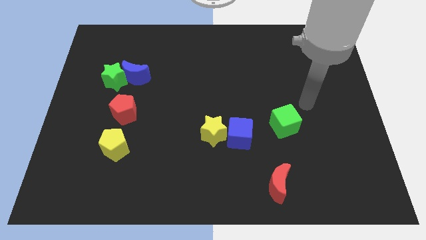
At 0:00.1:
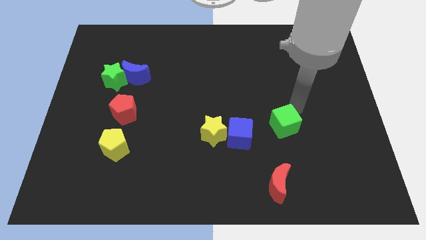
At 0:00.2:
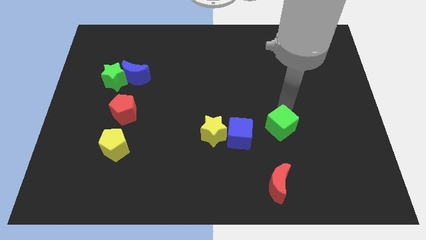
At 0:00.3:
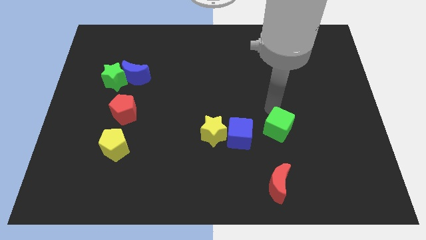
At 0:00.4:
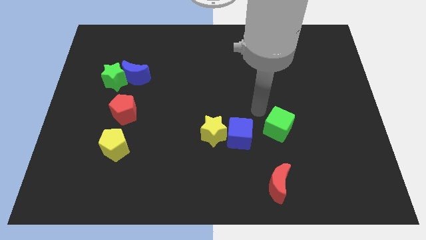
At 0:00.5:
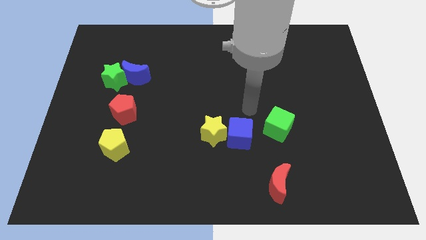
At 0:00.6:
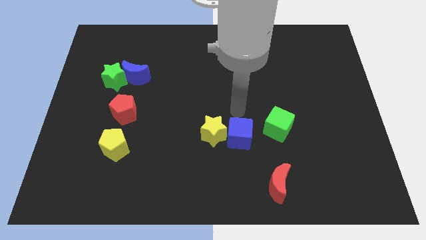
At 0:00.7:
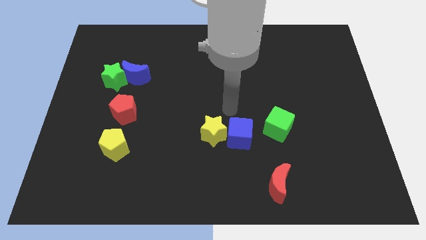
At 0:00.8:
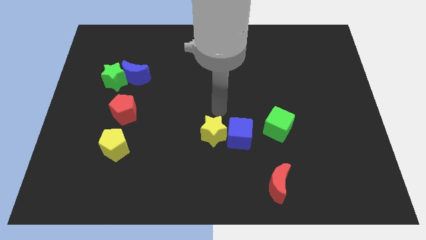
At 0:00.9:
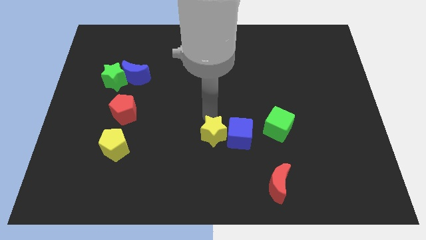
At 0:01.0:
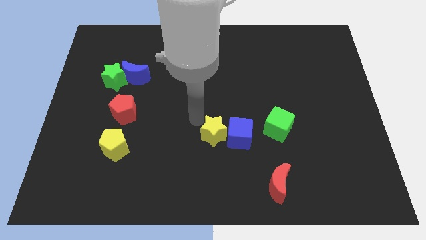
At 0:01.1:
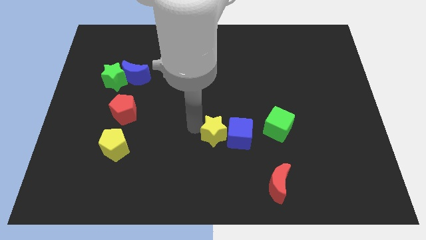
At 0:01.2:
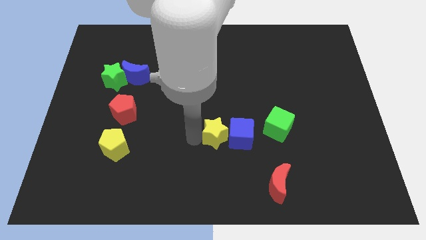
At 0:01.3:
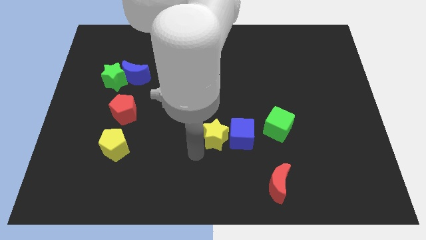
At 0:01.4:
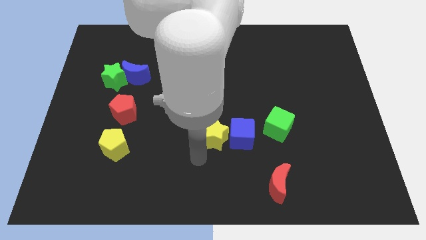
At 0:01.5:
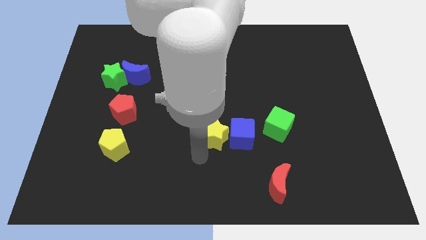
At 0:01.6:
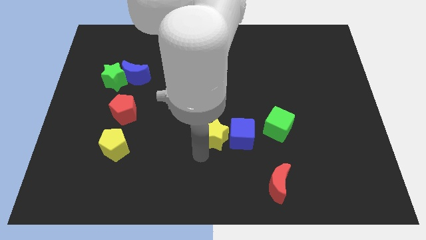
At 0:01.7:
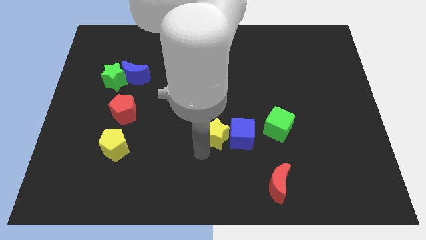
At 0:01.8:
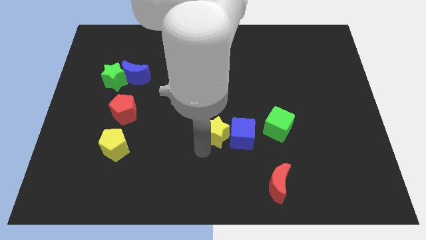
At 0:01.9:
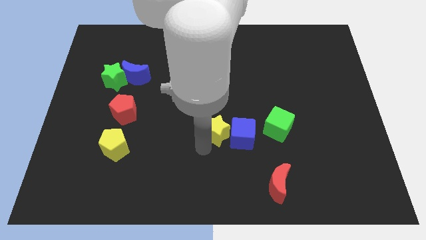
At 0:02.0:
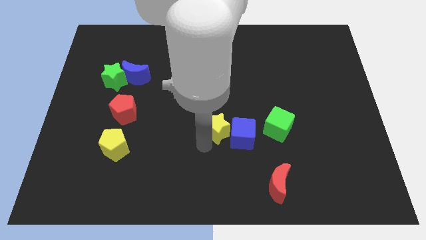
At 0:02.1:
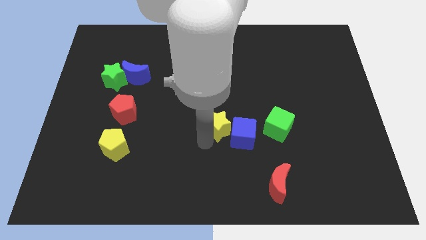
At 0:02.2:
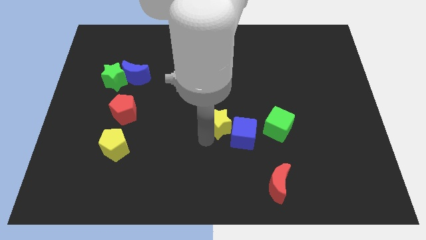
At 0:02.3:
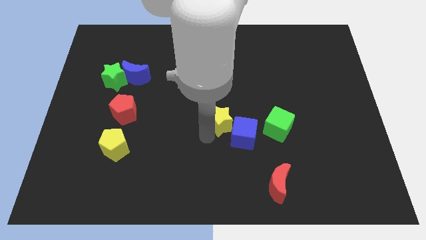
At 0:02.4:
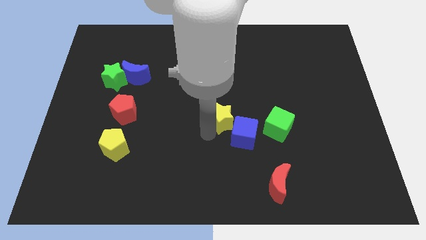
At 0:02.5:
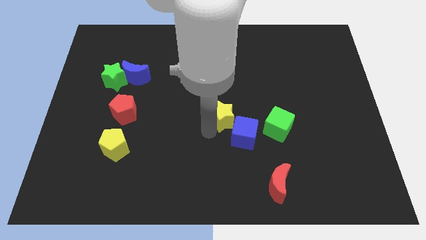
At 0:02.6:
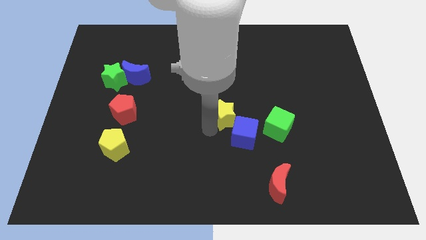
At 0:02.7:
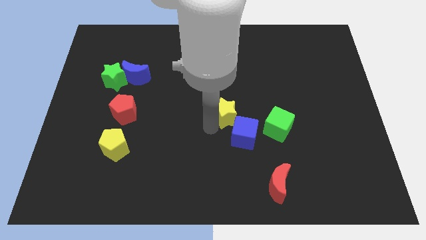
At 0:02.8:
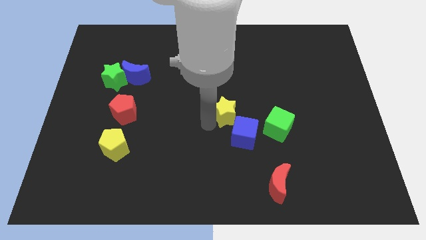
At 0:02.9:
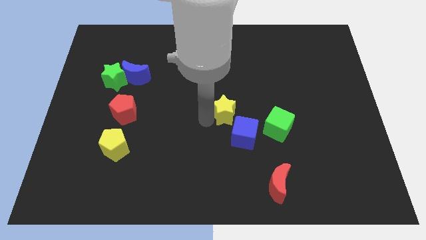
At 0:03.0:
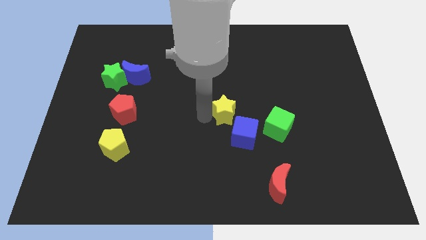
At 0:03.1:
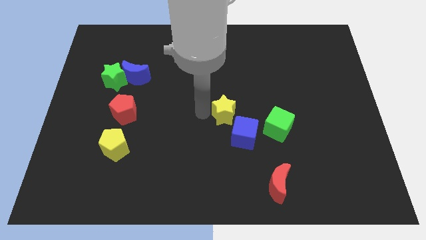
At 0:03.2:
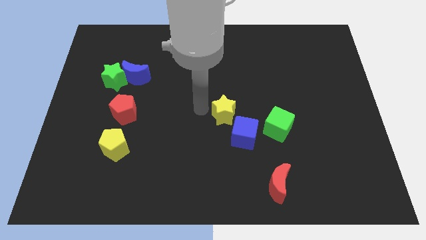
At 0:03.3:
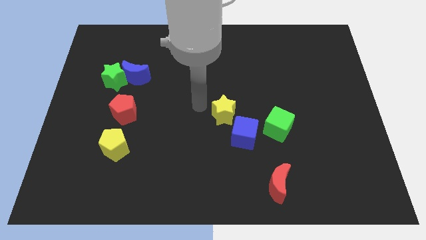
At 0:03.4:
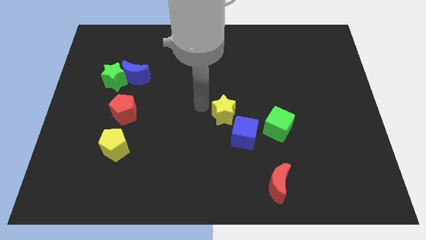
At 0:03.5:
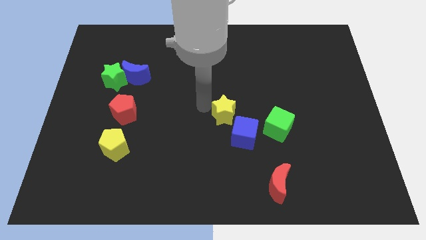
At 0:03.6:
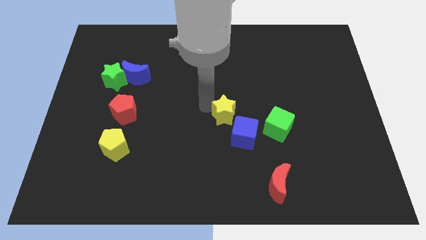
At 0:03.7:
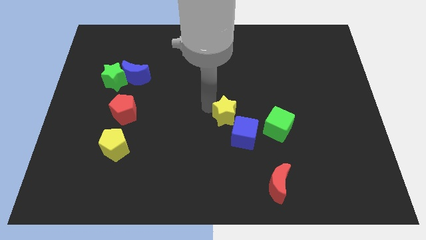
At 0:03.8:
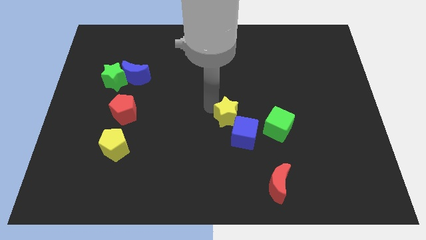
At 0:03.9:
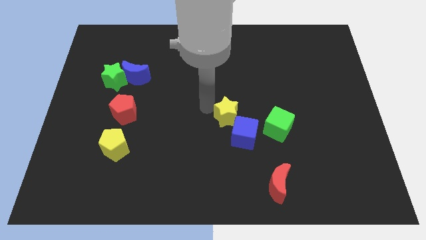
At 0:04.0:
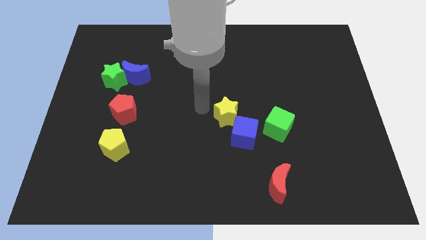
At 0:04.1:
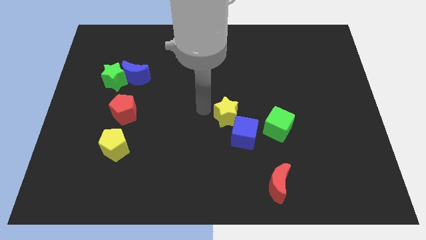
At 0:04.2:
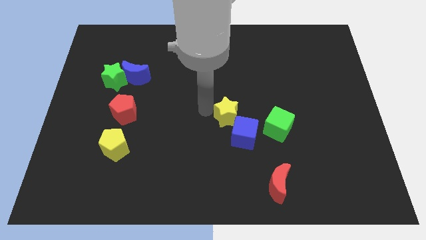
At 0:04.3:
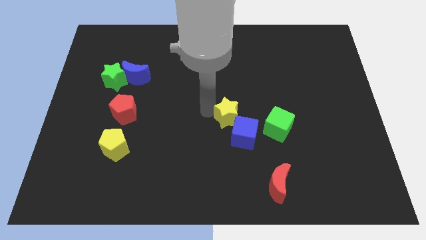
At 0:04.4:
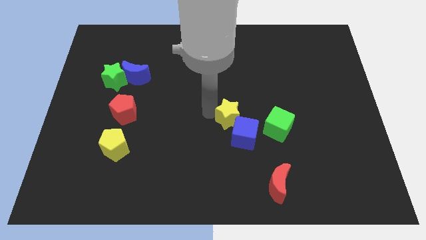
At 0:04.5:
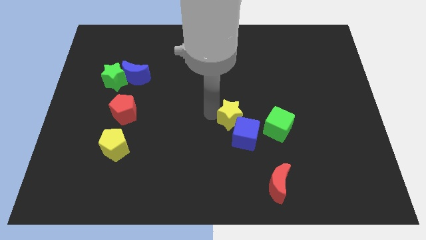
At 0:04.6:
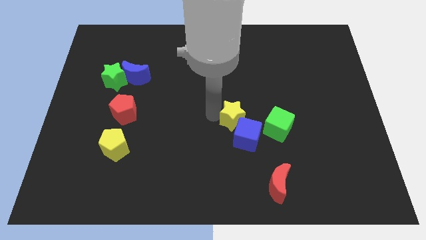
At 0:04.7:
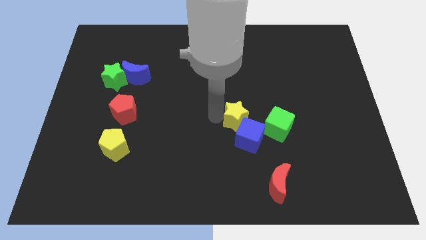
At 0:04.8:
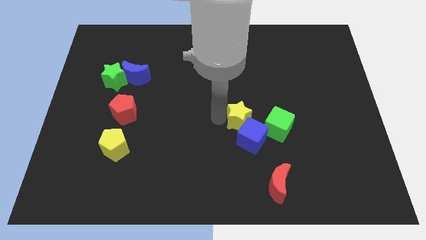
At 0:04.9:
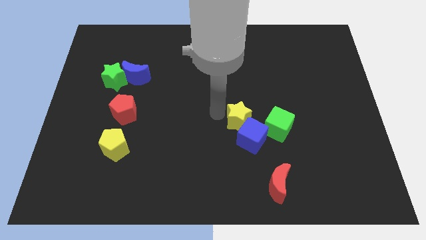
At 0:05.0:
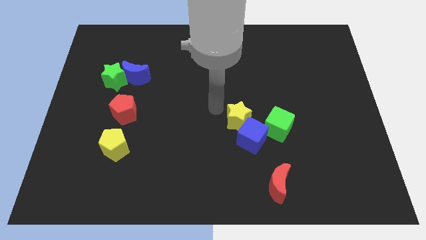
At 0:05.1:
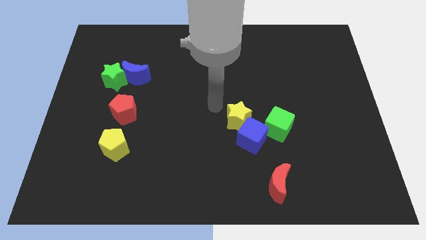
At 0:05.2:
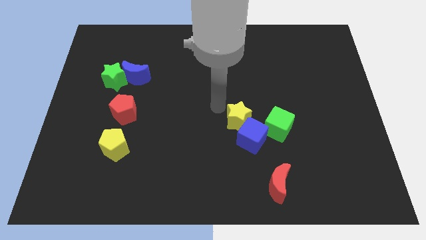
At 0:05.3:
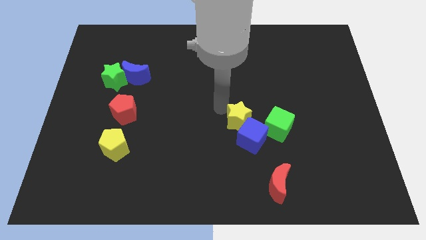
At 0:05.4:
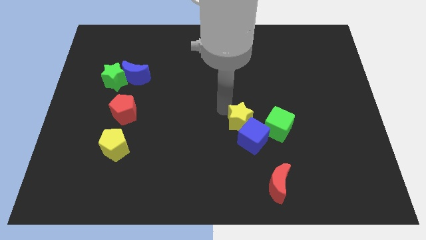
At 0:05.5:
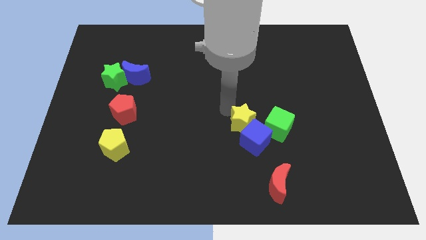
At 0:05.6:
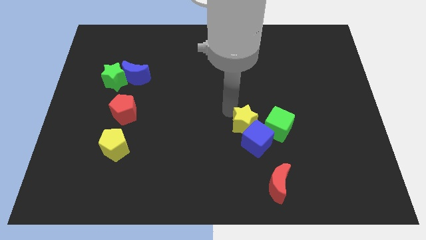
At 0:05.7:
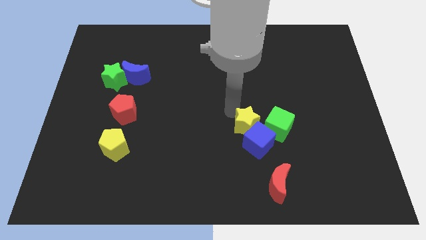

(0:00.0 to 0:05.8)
slightly move the yellow star right

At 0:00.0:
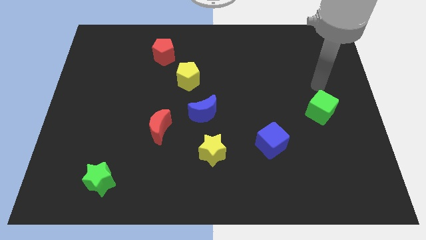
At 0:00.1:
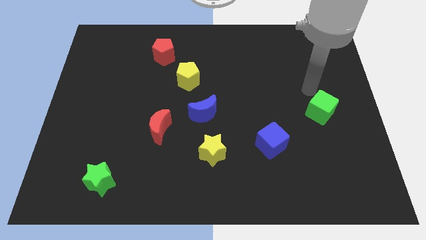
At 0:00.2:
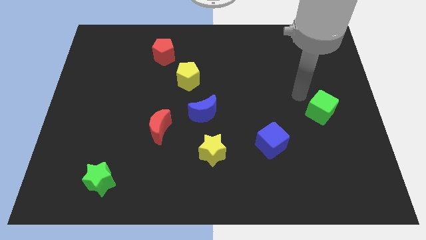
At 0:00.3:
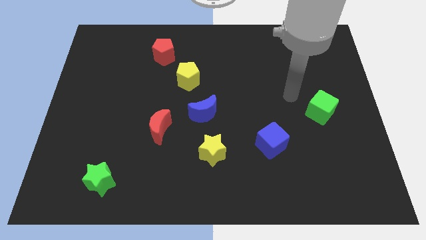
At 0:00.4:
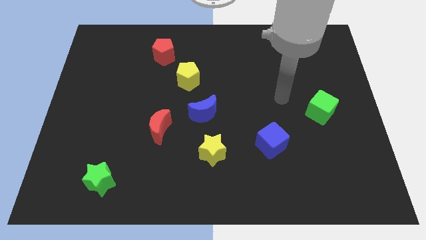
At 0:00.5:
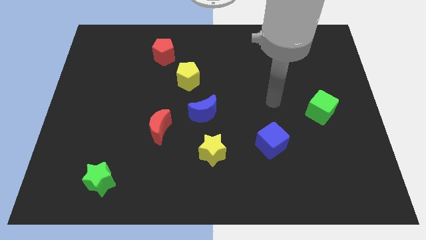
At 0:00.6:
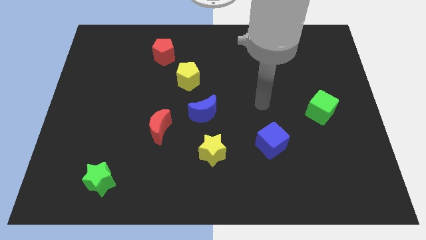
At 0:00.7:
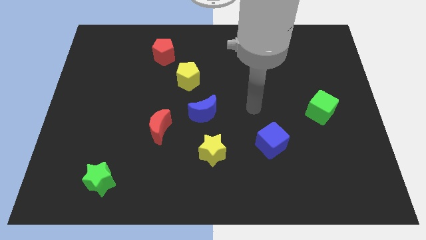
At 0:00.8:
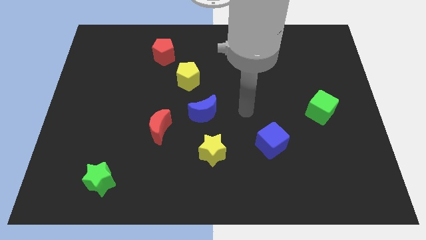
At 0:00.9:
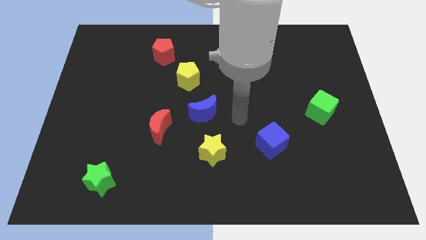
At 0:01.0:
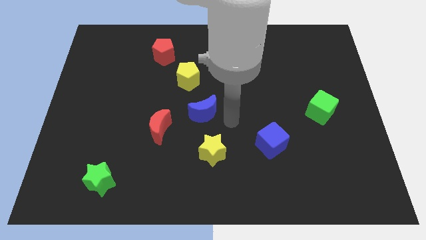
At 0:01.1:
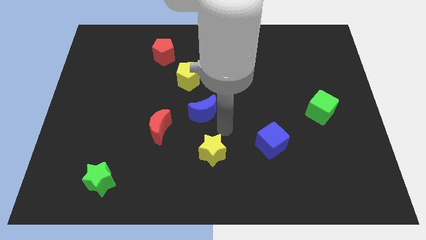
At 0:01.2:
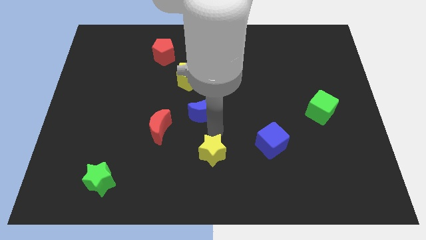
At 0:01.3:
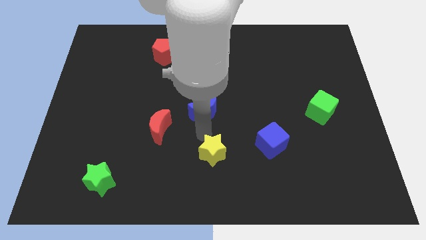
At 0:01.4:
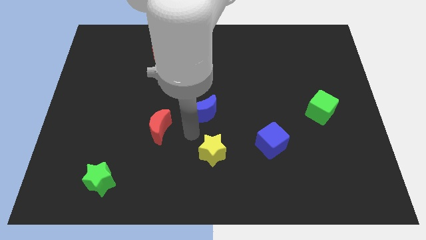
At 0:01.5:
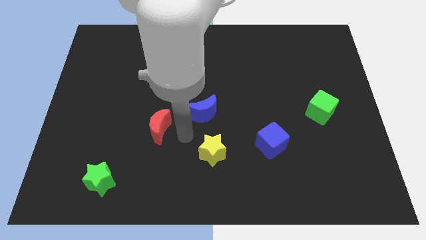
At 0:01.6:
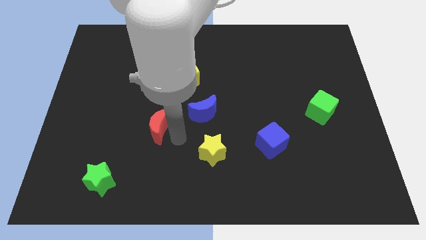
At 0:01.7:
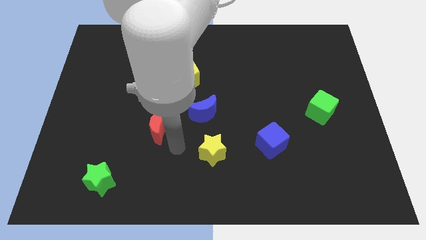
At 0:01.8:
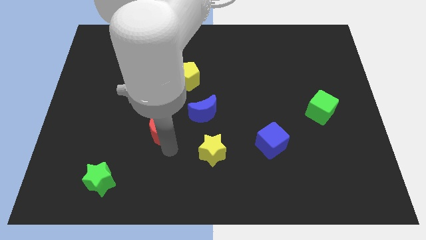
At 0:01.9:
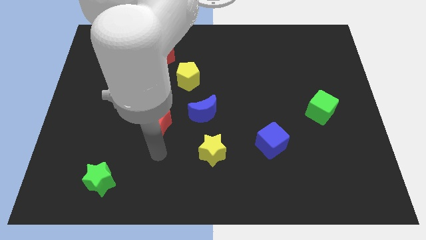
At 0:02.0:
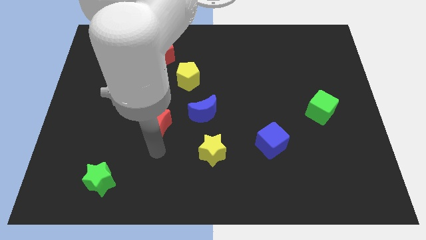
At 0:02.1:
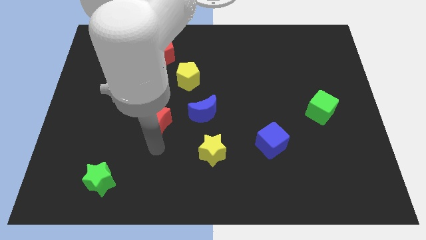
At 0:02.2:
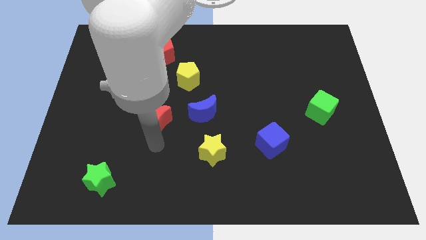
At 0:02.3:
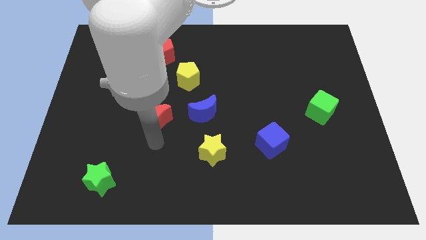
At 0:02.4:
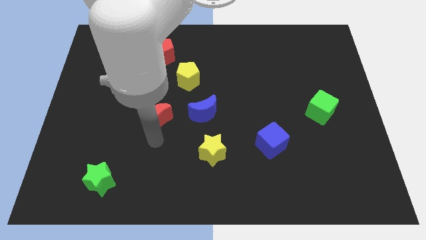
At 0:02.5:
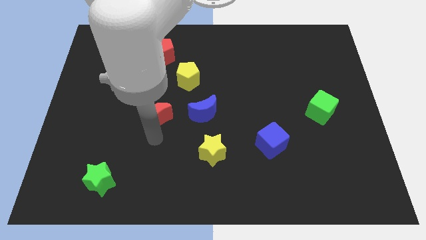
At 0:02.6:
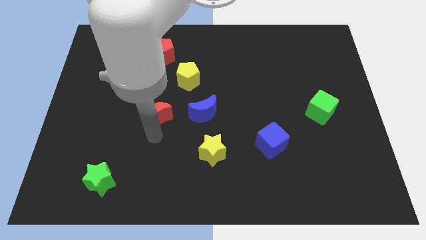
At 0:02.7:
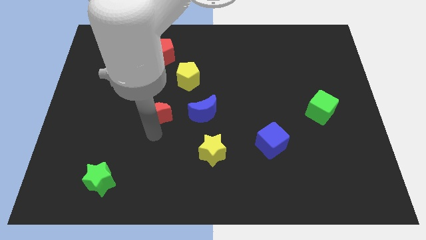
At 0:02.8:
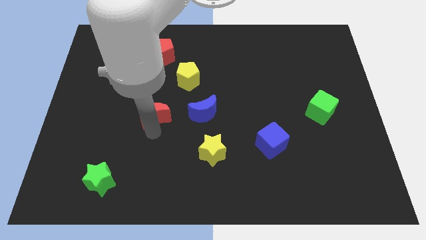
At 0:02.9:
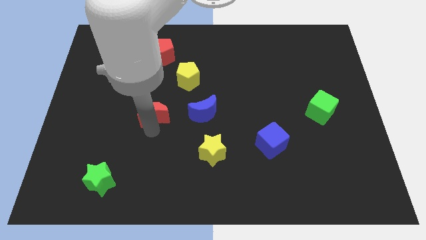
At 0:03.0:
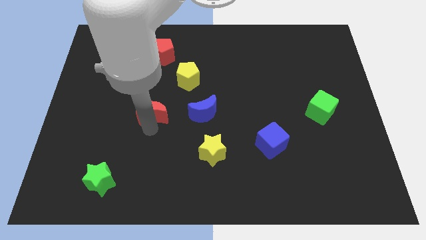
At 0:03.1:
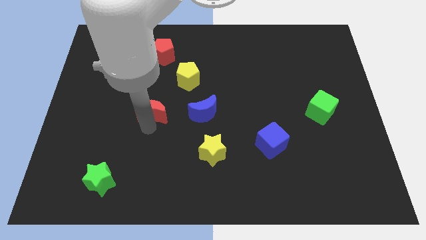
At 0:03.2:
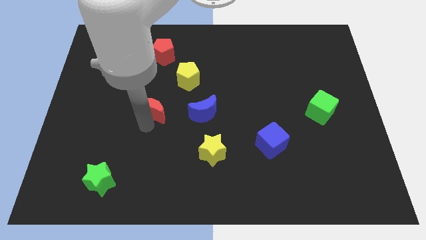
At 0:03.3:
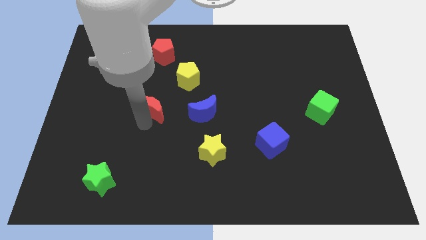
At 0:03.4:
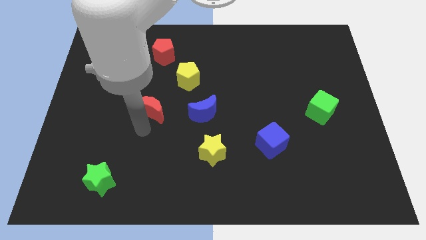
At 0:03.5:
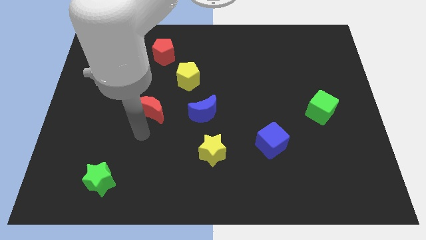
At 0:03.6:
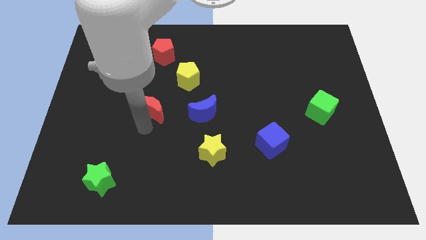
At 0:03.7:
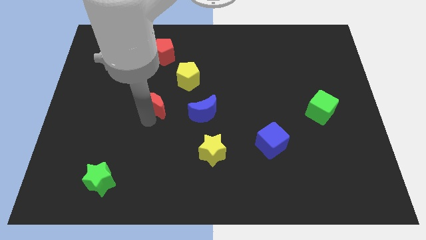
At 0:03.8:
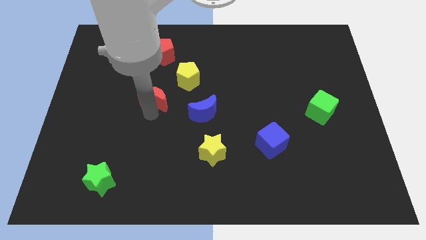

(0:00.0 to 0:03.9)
slightly slide the red moon upwards
